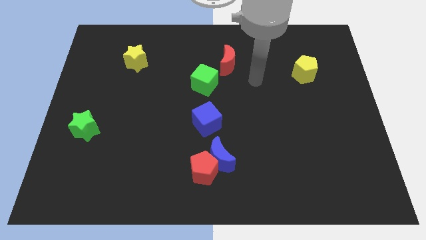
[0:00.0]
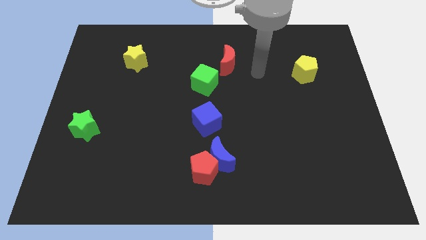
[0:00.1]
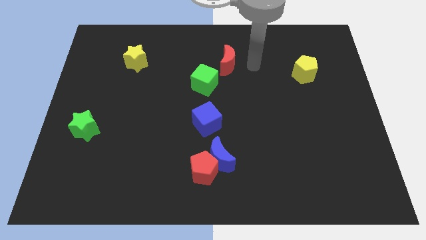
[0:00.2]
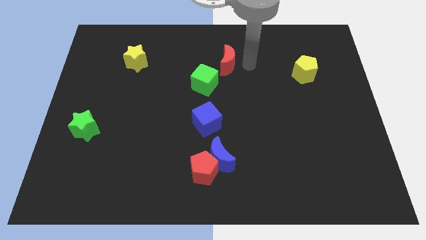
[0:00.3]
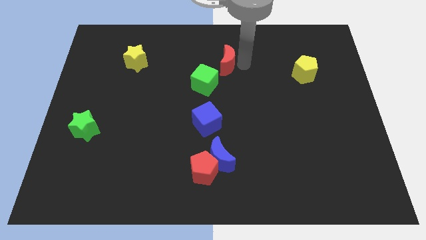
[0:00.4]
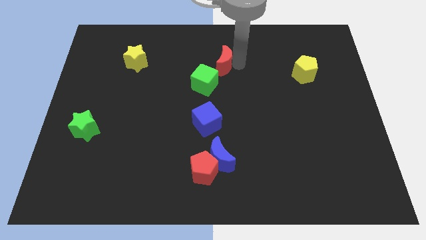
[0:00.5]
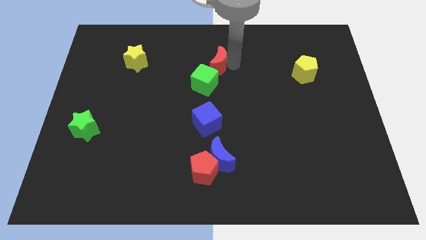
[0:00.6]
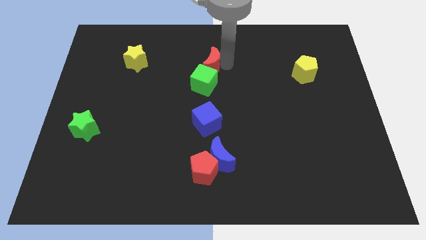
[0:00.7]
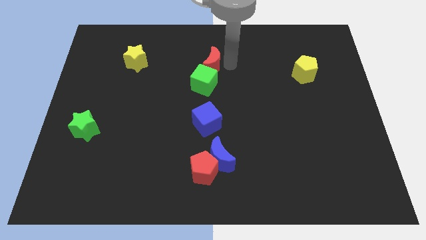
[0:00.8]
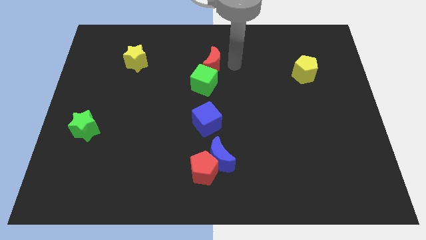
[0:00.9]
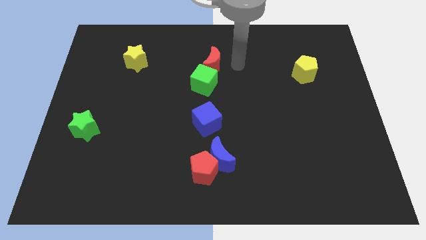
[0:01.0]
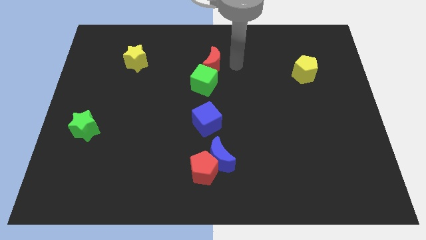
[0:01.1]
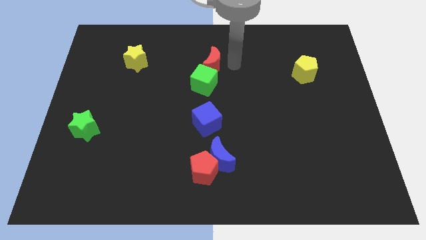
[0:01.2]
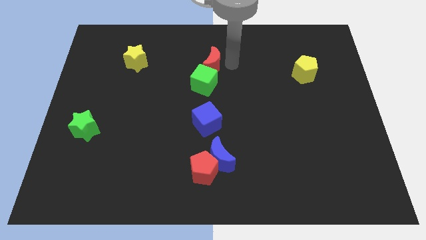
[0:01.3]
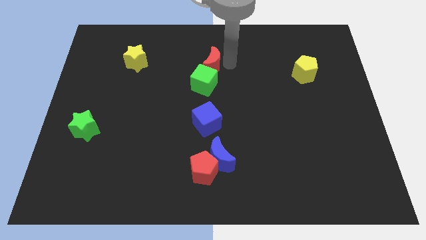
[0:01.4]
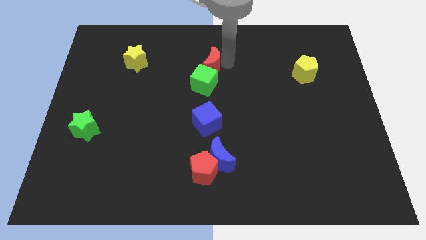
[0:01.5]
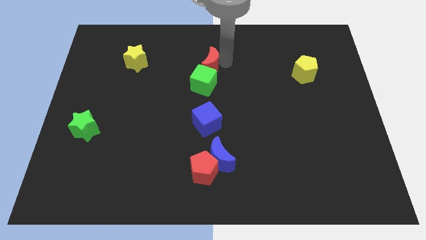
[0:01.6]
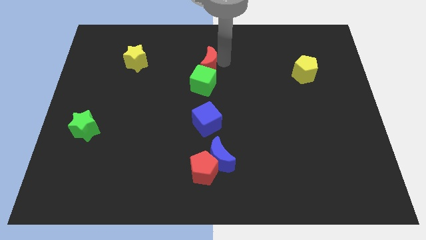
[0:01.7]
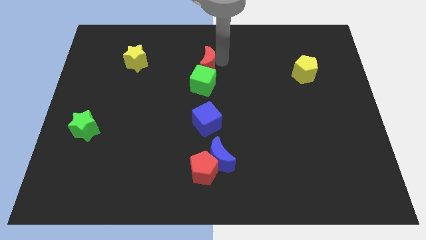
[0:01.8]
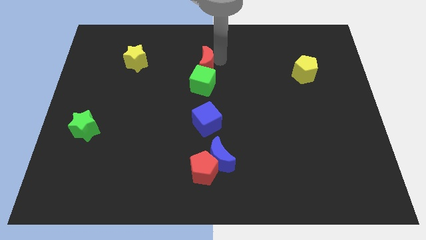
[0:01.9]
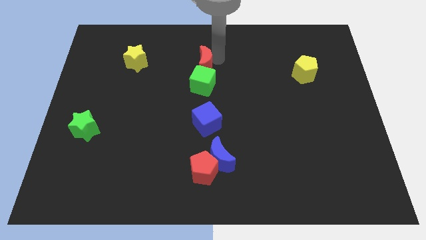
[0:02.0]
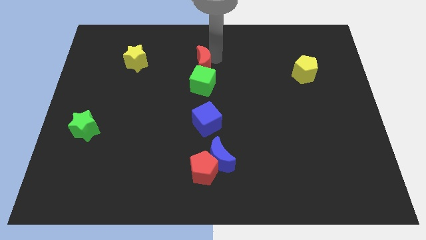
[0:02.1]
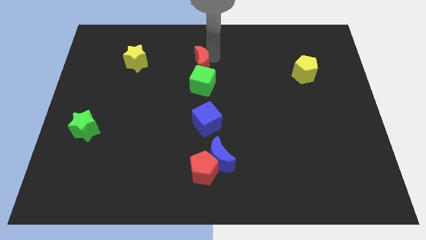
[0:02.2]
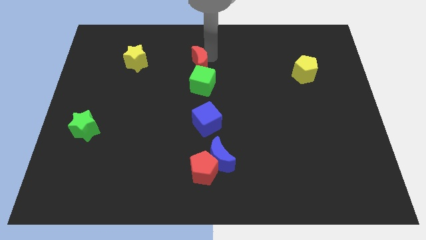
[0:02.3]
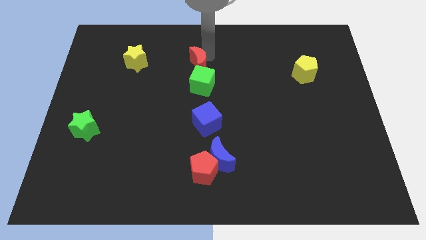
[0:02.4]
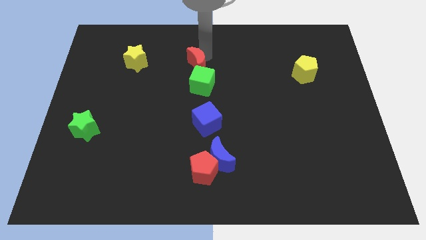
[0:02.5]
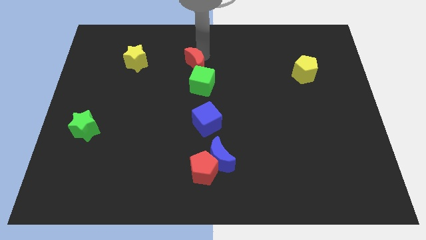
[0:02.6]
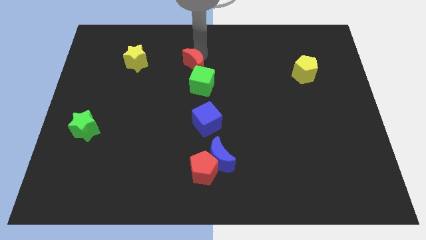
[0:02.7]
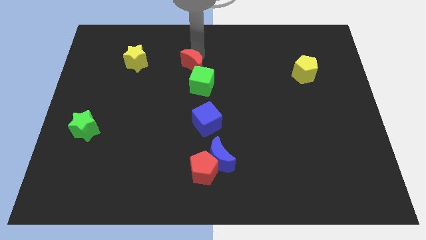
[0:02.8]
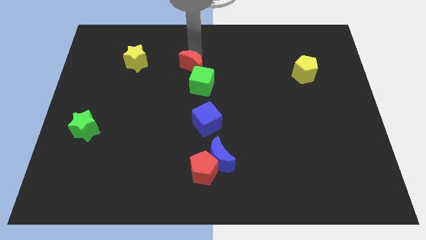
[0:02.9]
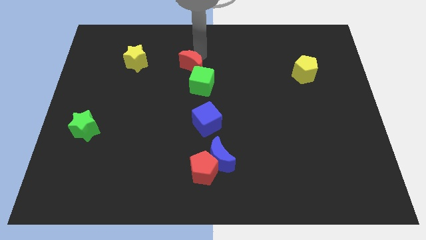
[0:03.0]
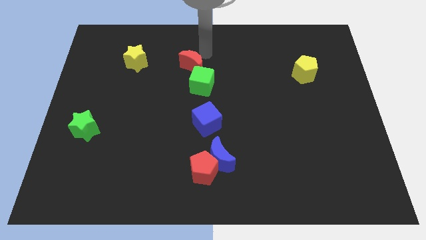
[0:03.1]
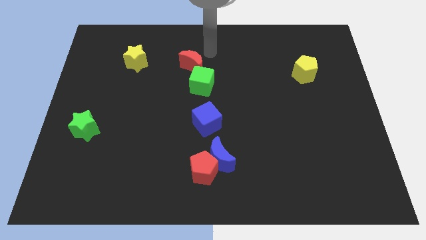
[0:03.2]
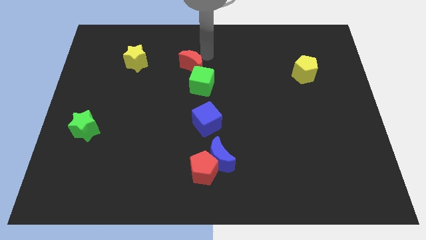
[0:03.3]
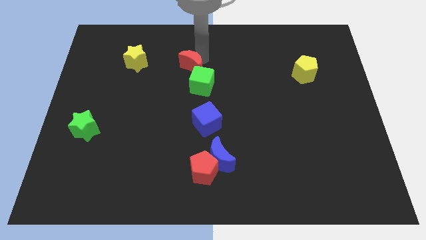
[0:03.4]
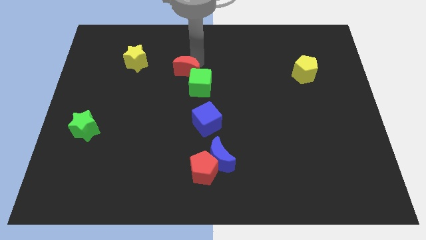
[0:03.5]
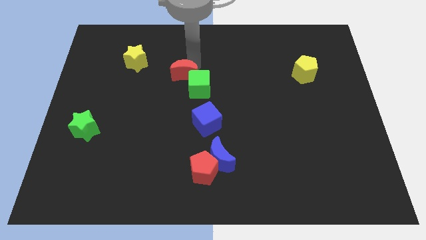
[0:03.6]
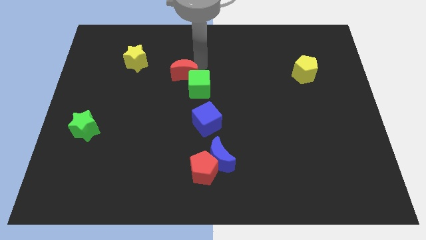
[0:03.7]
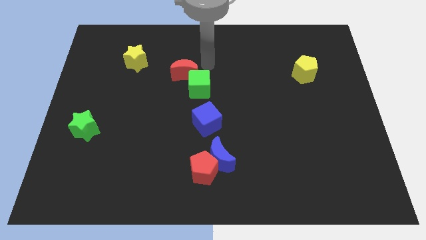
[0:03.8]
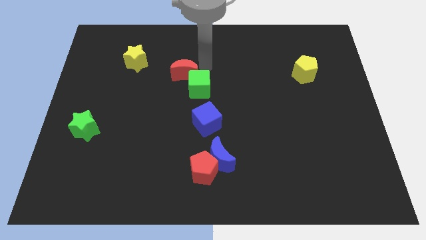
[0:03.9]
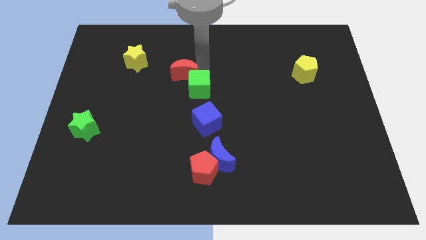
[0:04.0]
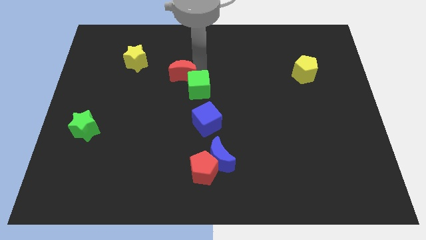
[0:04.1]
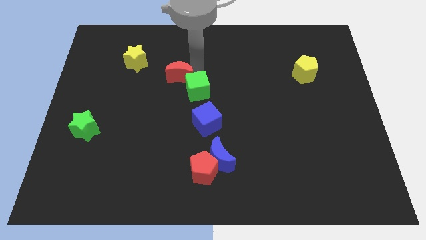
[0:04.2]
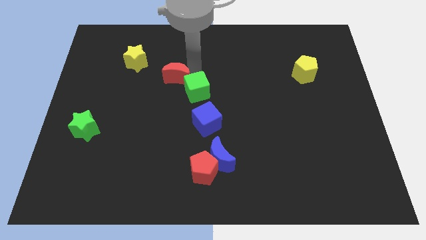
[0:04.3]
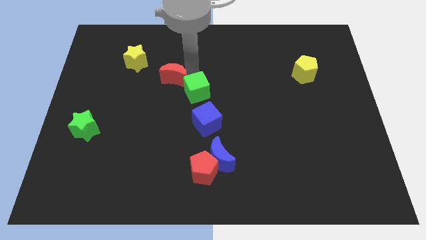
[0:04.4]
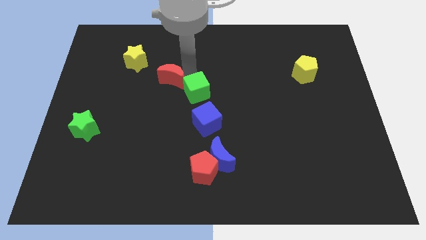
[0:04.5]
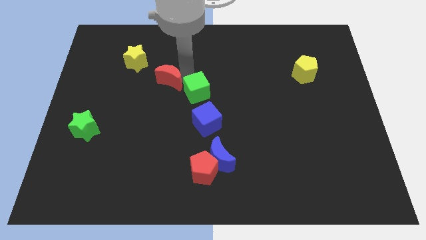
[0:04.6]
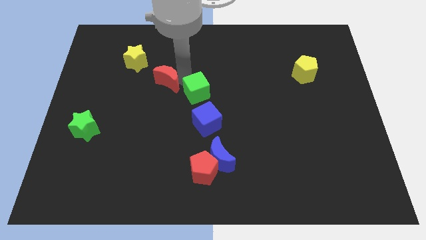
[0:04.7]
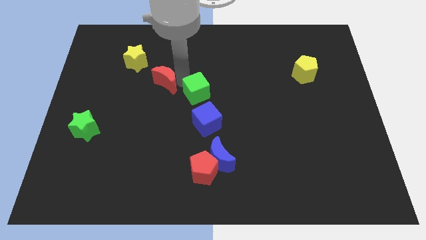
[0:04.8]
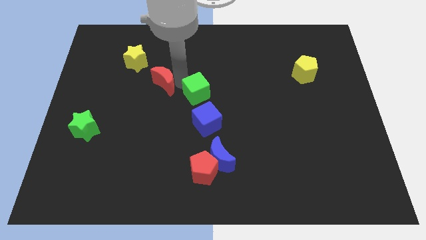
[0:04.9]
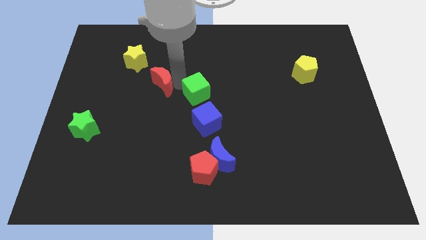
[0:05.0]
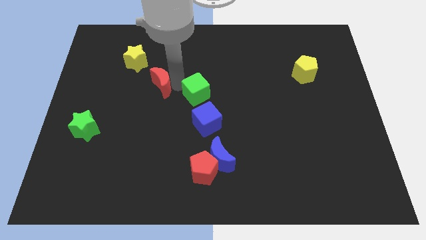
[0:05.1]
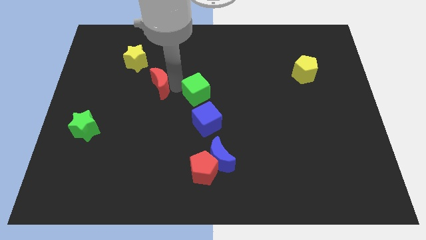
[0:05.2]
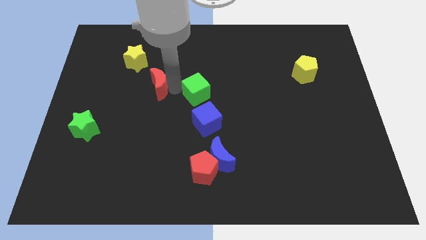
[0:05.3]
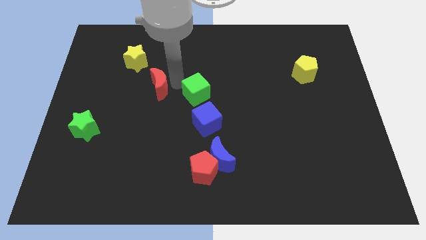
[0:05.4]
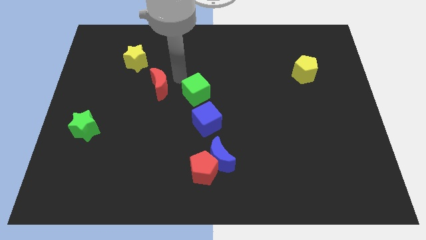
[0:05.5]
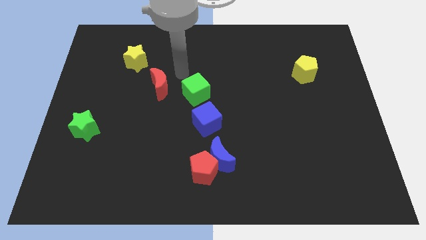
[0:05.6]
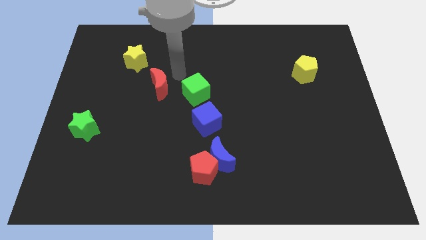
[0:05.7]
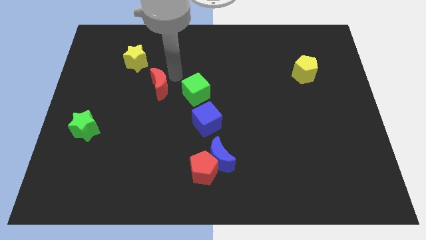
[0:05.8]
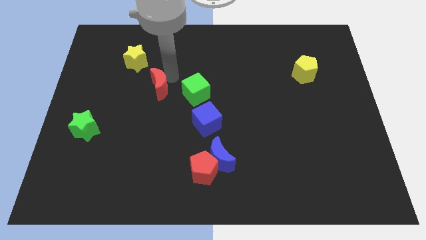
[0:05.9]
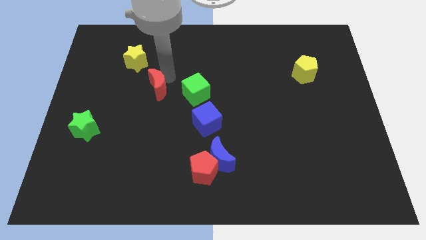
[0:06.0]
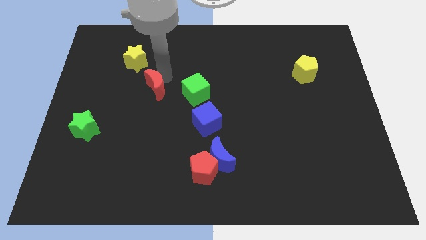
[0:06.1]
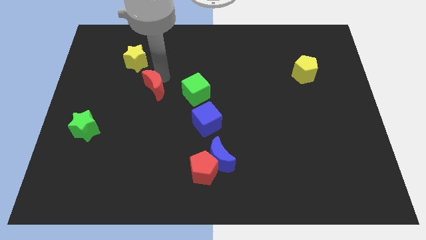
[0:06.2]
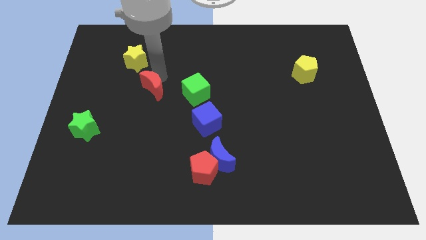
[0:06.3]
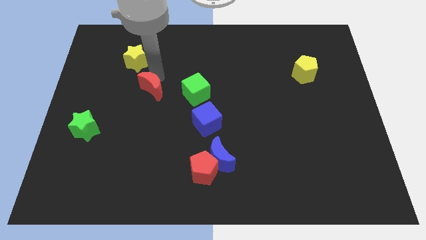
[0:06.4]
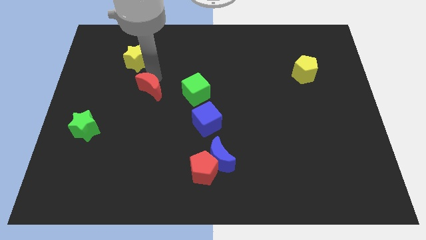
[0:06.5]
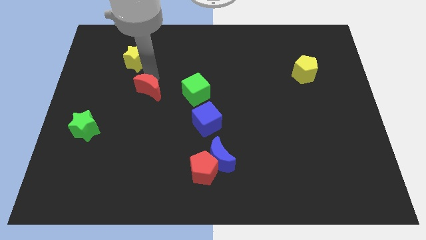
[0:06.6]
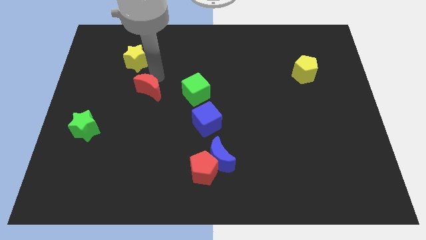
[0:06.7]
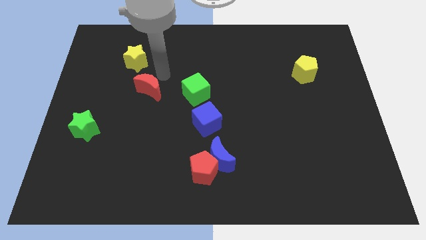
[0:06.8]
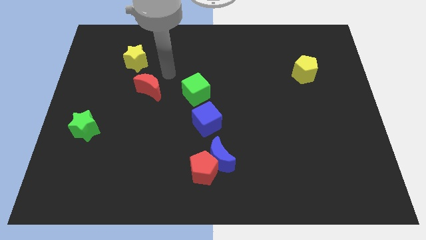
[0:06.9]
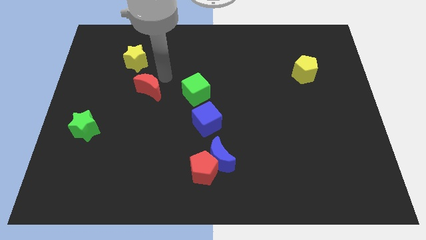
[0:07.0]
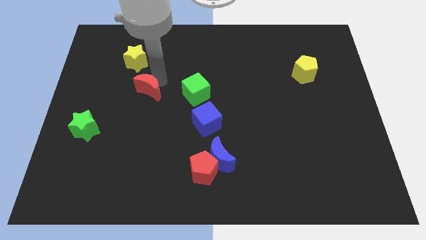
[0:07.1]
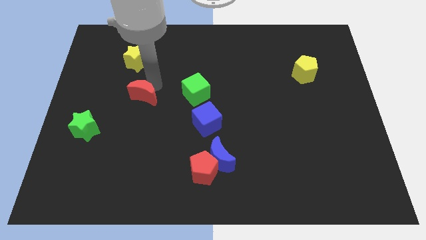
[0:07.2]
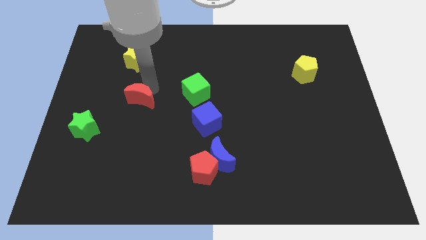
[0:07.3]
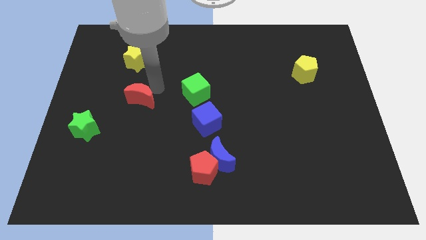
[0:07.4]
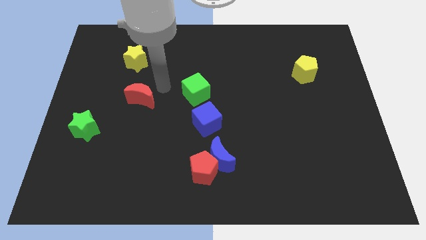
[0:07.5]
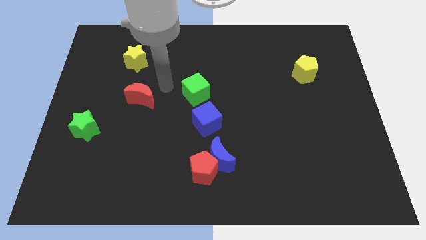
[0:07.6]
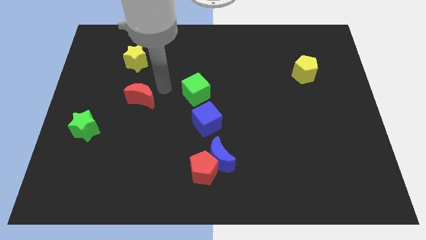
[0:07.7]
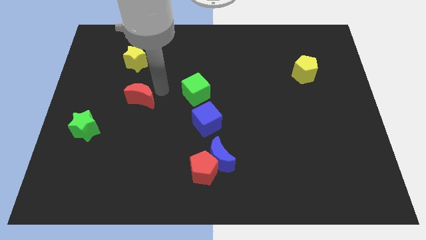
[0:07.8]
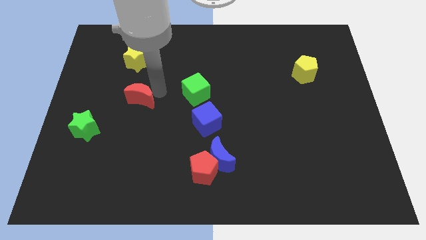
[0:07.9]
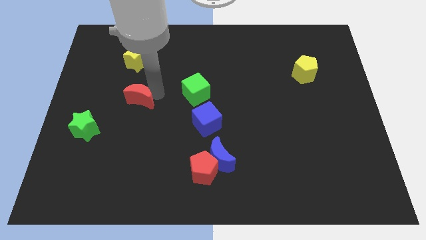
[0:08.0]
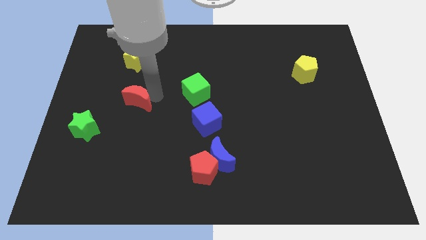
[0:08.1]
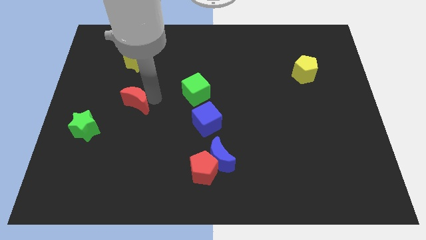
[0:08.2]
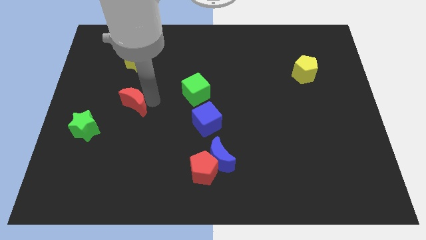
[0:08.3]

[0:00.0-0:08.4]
put the red moon diagonally up and to the right of the green star
